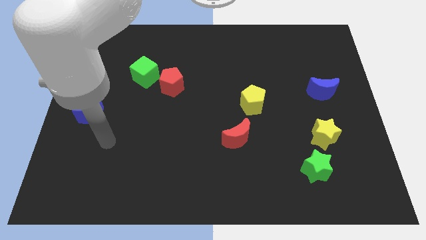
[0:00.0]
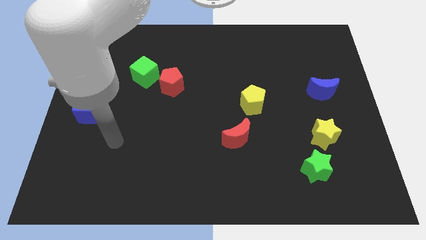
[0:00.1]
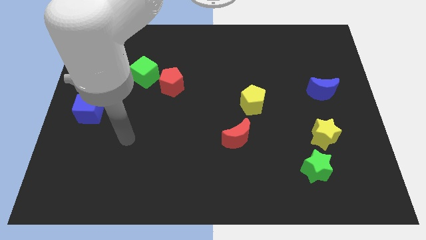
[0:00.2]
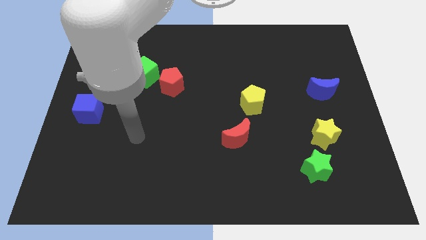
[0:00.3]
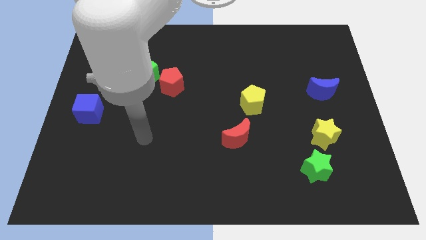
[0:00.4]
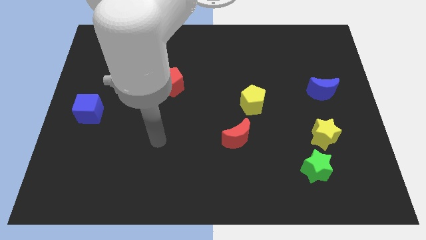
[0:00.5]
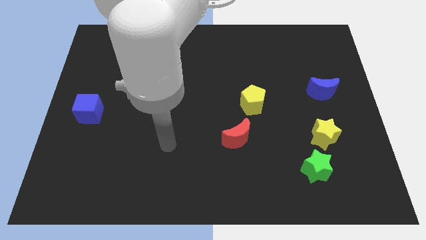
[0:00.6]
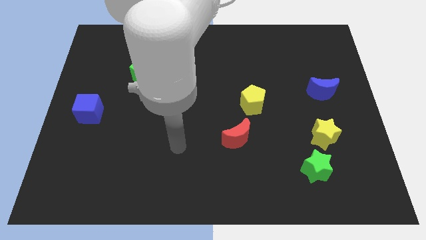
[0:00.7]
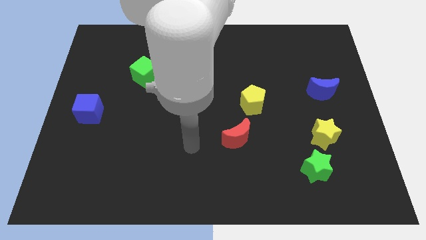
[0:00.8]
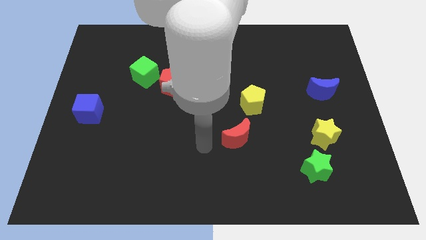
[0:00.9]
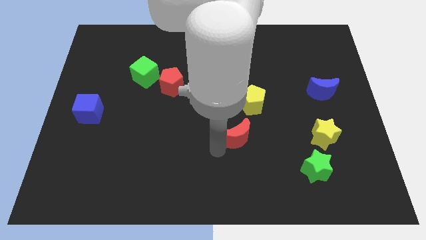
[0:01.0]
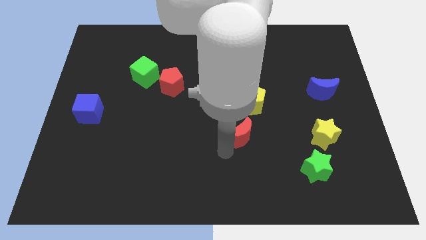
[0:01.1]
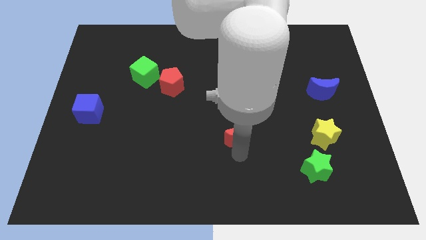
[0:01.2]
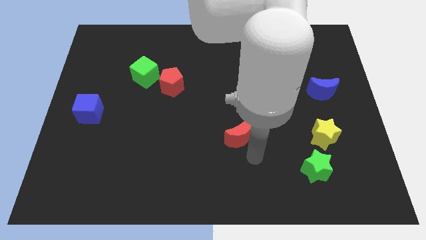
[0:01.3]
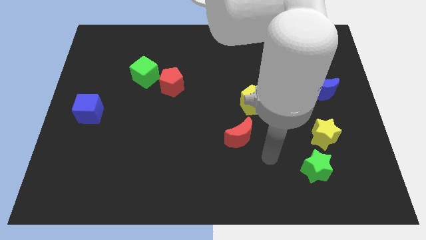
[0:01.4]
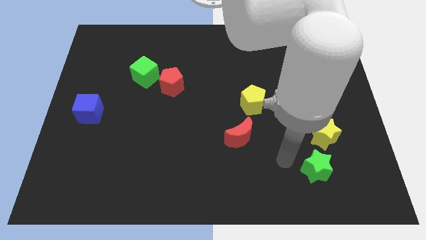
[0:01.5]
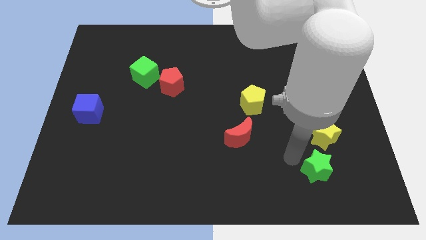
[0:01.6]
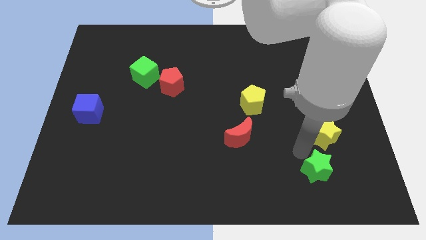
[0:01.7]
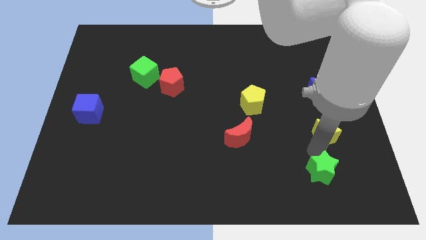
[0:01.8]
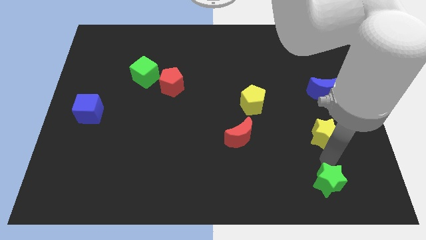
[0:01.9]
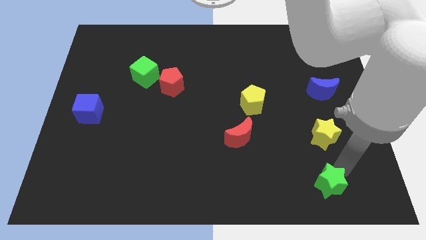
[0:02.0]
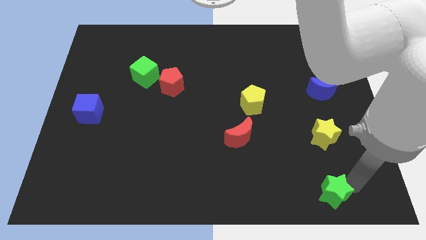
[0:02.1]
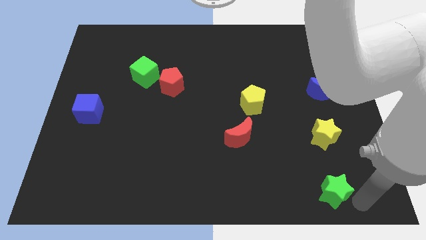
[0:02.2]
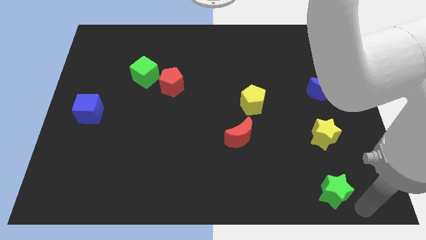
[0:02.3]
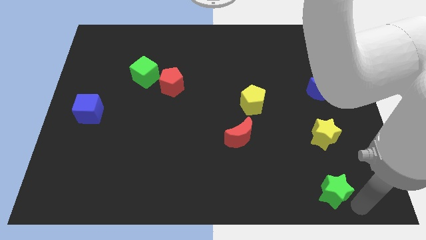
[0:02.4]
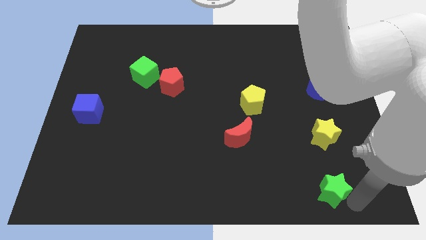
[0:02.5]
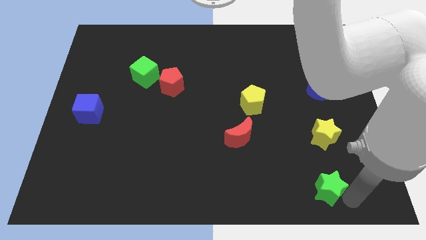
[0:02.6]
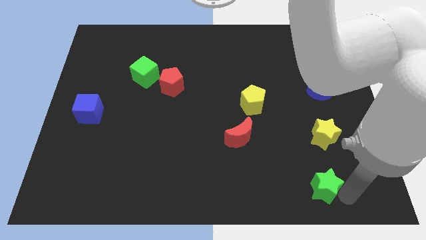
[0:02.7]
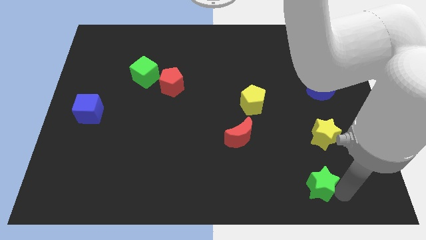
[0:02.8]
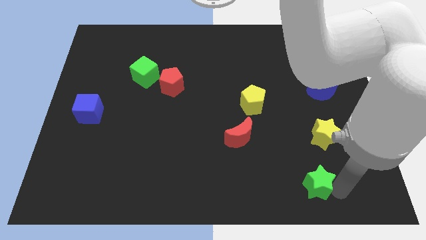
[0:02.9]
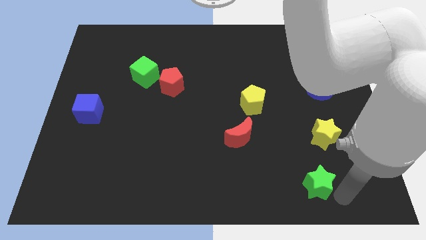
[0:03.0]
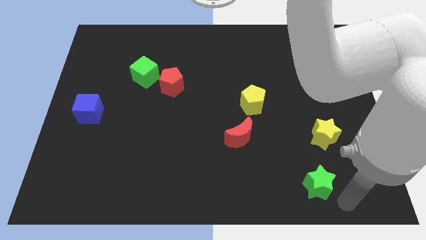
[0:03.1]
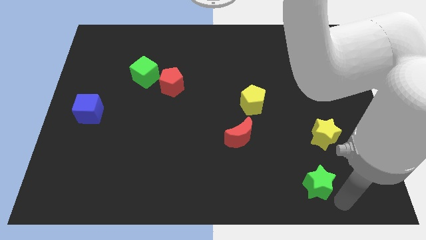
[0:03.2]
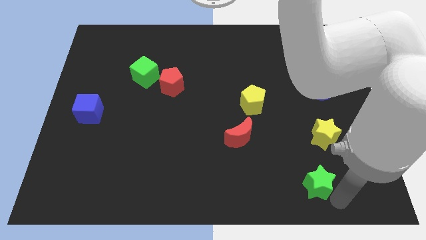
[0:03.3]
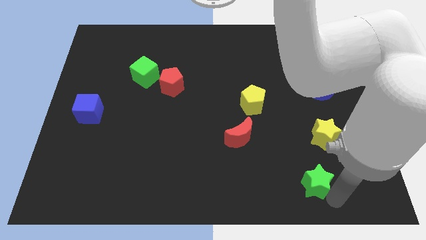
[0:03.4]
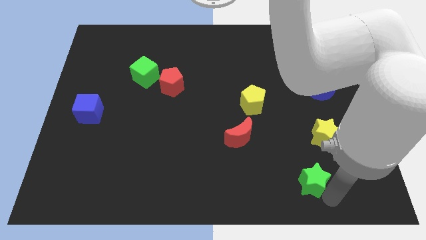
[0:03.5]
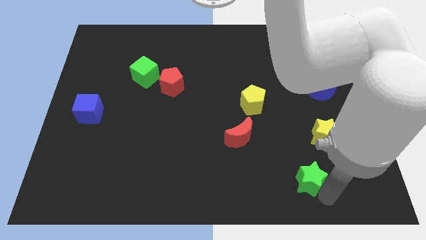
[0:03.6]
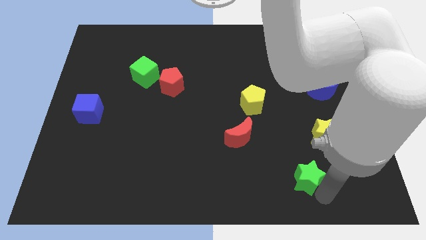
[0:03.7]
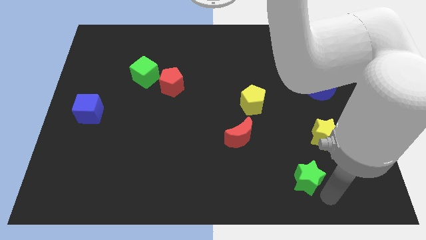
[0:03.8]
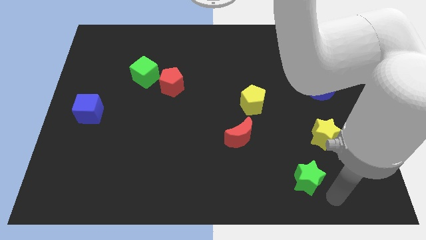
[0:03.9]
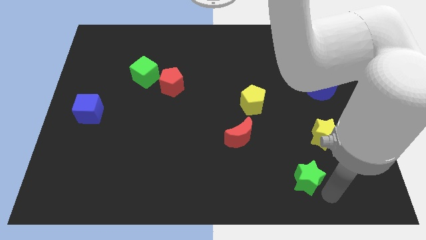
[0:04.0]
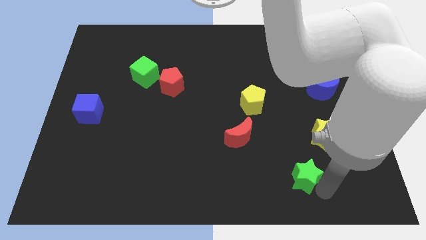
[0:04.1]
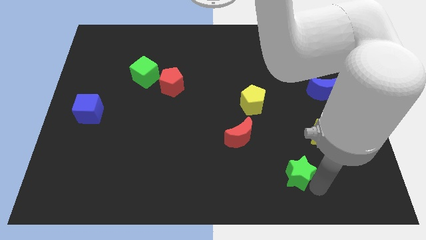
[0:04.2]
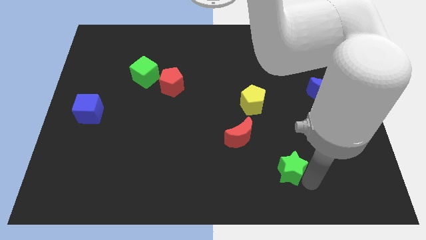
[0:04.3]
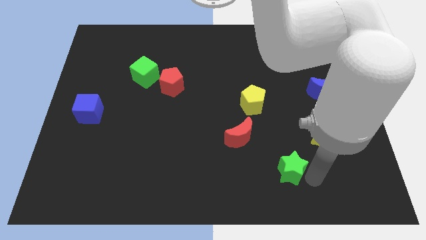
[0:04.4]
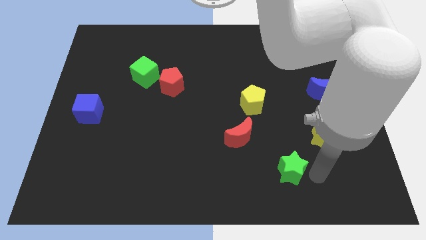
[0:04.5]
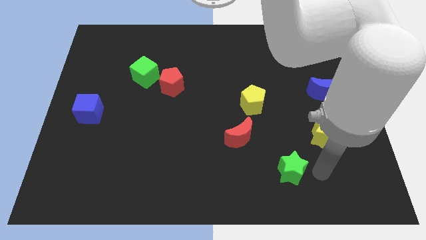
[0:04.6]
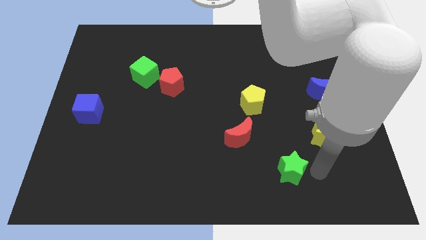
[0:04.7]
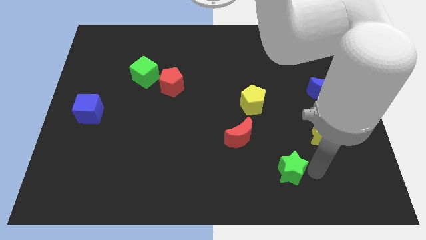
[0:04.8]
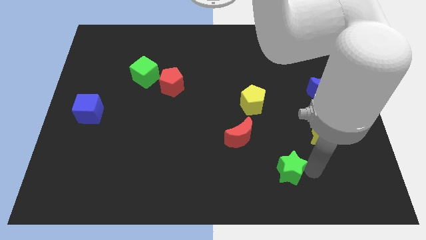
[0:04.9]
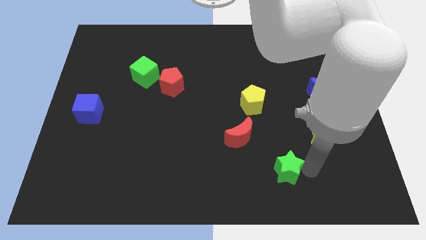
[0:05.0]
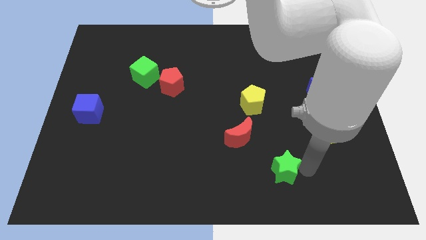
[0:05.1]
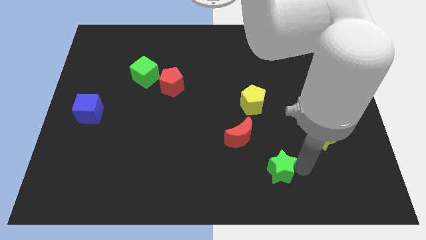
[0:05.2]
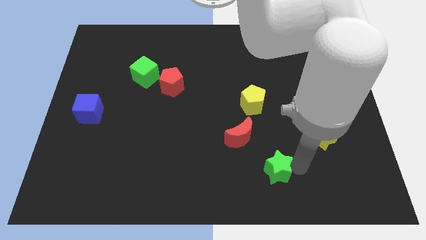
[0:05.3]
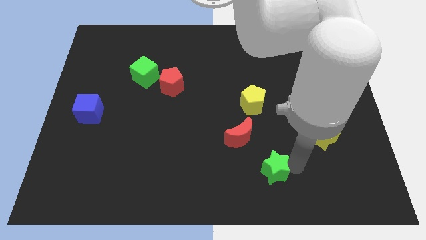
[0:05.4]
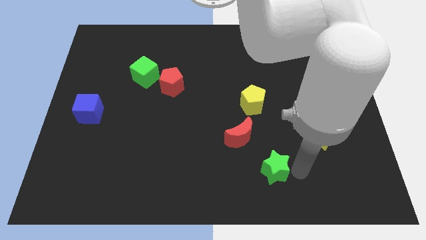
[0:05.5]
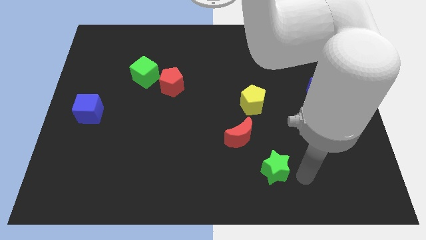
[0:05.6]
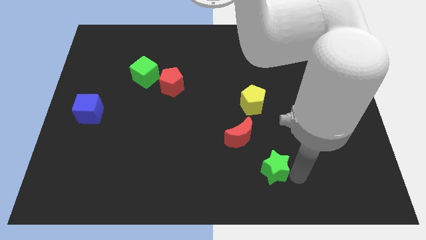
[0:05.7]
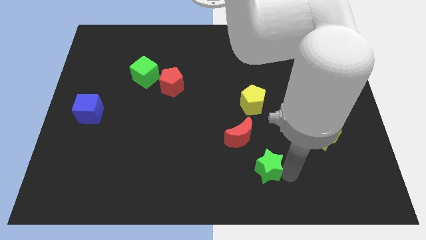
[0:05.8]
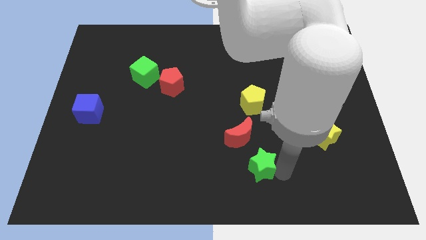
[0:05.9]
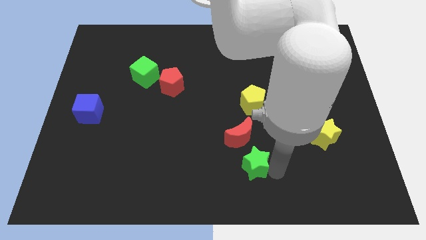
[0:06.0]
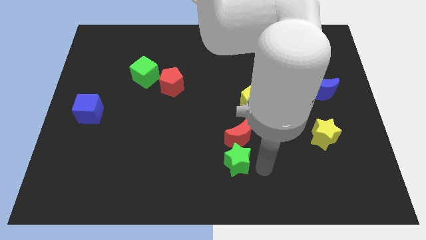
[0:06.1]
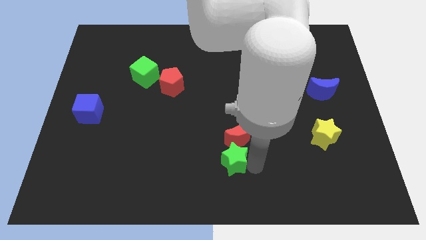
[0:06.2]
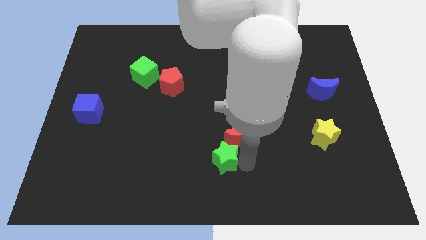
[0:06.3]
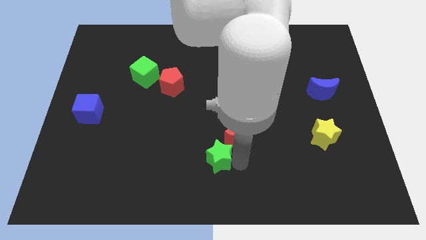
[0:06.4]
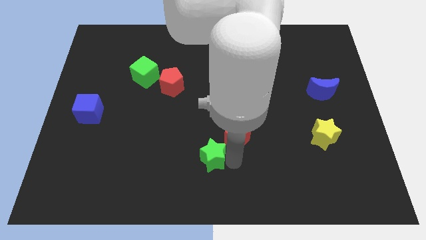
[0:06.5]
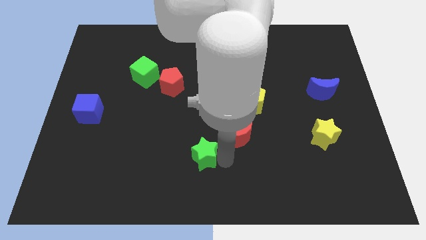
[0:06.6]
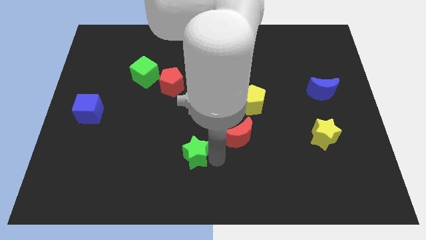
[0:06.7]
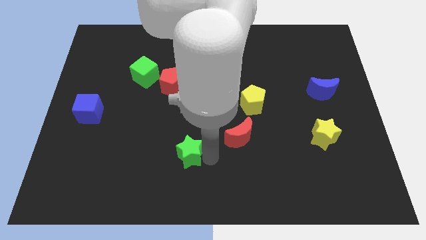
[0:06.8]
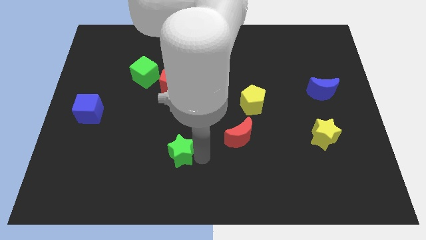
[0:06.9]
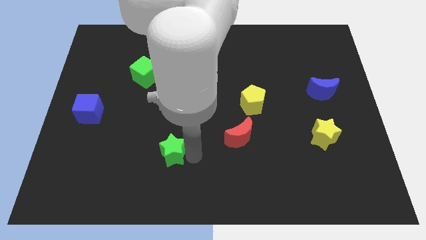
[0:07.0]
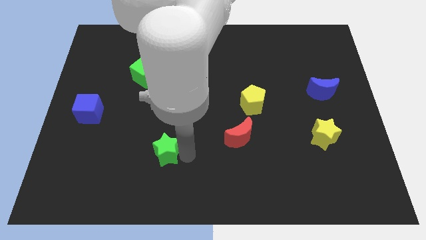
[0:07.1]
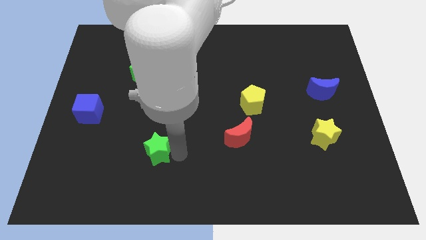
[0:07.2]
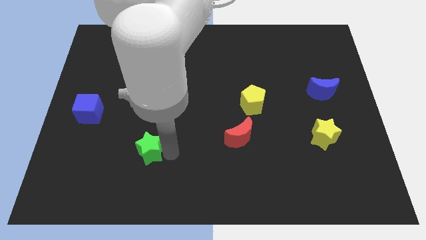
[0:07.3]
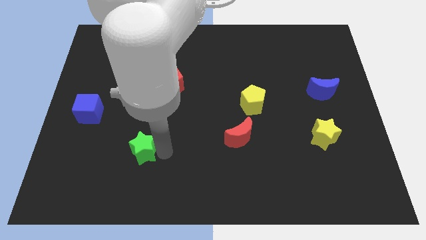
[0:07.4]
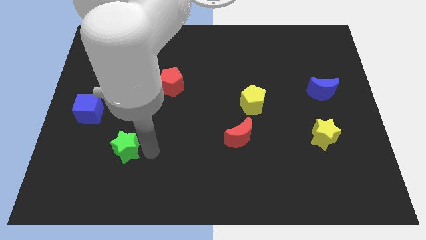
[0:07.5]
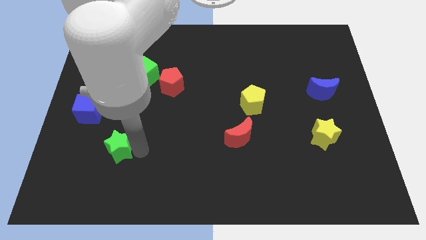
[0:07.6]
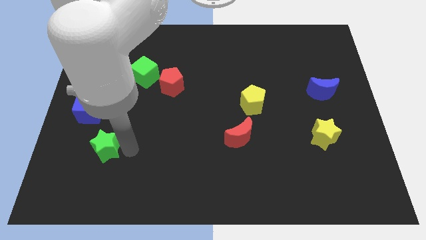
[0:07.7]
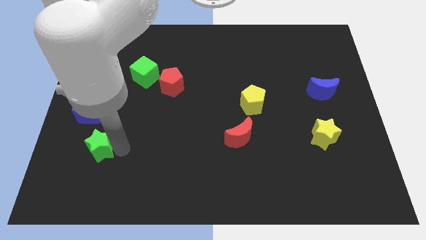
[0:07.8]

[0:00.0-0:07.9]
put the green star to the bottom of the blue cube
